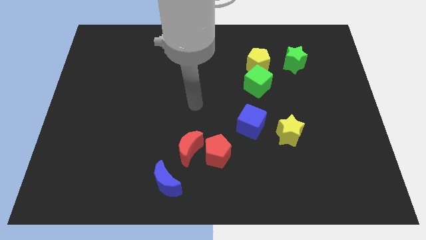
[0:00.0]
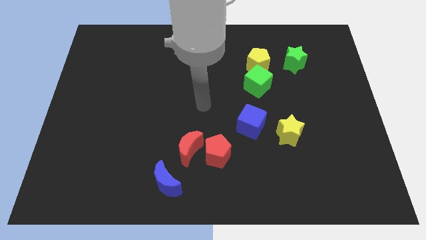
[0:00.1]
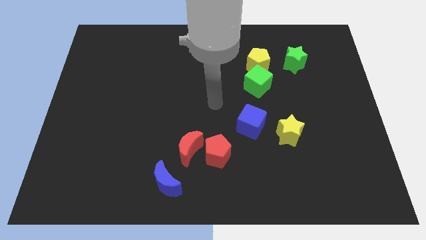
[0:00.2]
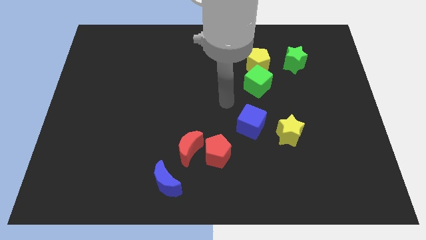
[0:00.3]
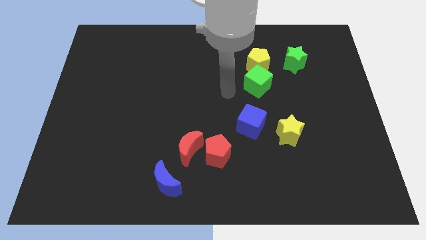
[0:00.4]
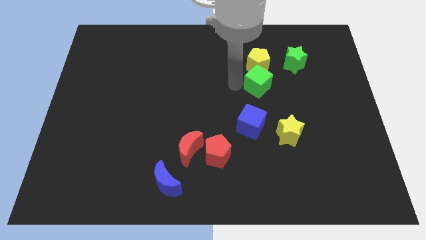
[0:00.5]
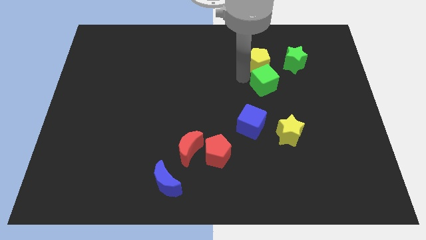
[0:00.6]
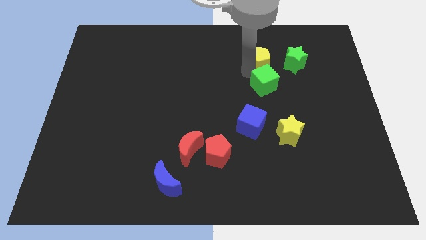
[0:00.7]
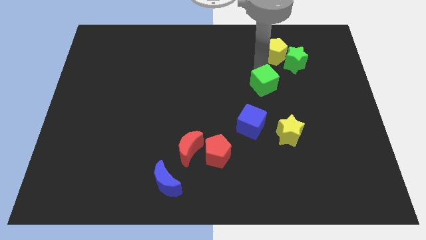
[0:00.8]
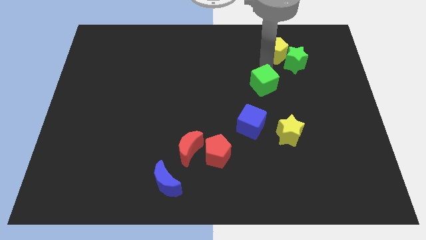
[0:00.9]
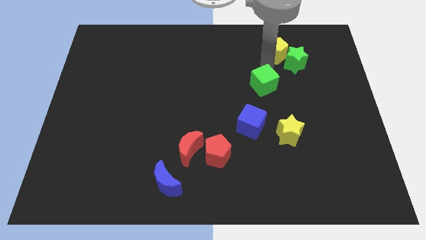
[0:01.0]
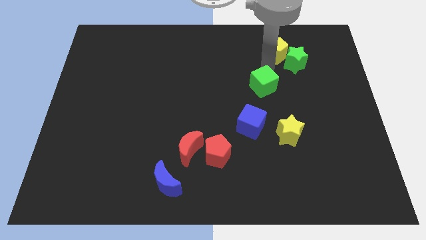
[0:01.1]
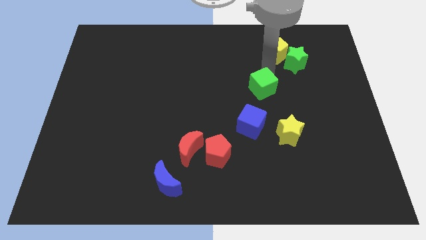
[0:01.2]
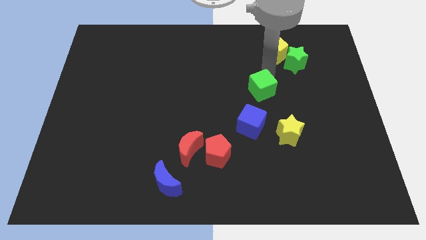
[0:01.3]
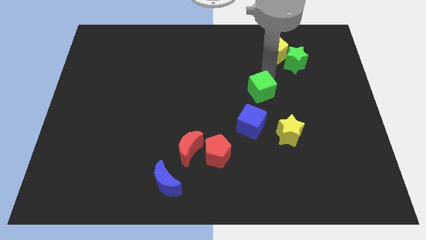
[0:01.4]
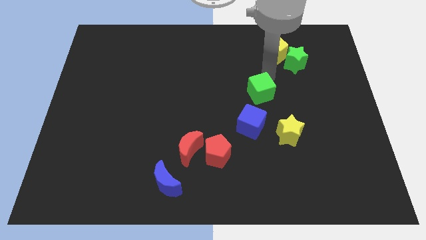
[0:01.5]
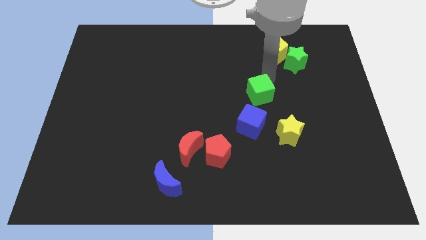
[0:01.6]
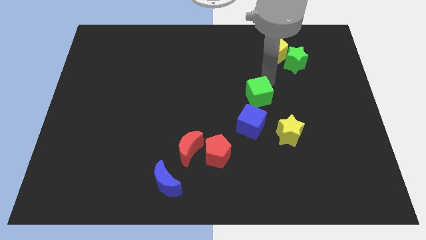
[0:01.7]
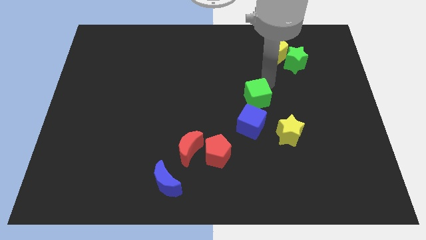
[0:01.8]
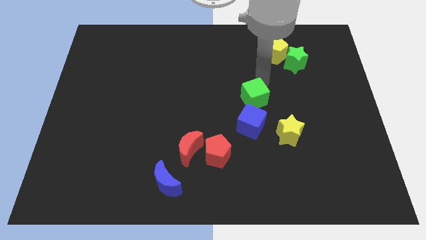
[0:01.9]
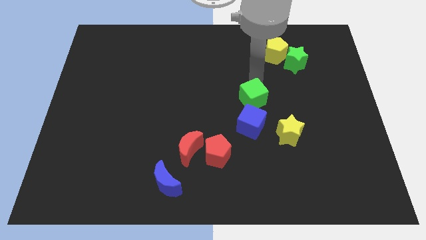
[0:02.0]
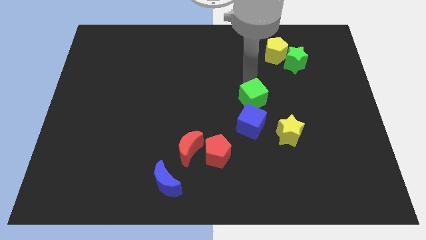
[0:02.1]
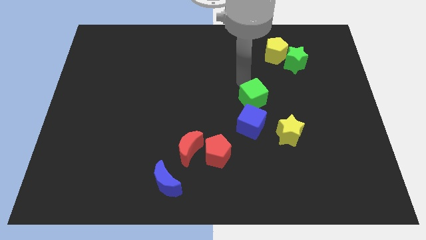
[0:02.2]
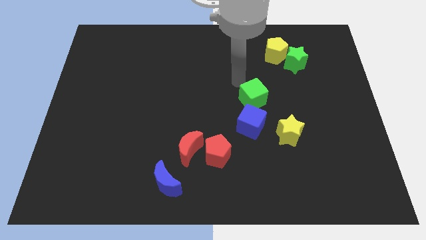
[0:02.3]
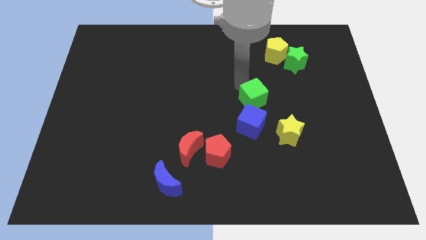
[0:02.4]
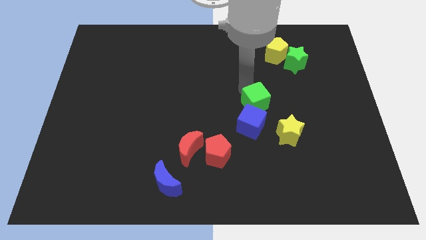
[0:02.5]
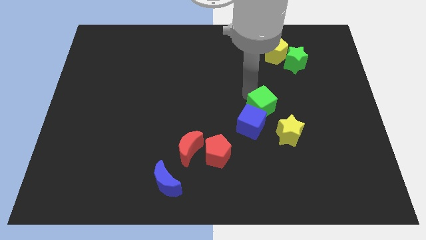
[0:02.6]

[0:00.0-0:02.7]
move the green cube downwards a little bit

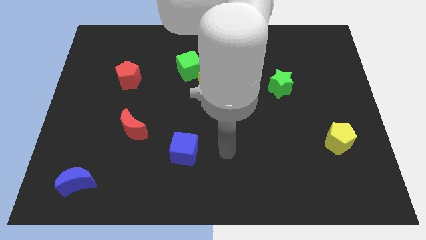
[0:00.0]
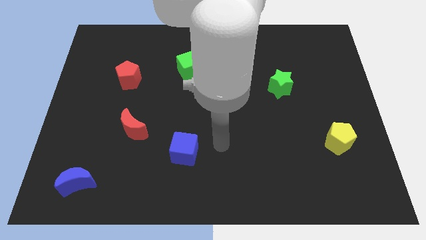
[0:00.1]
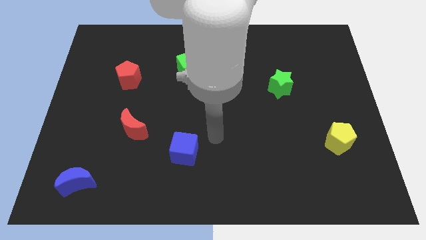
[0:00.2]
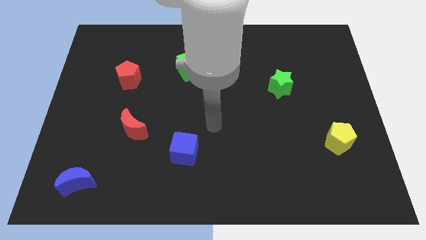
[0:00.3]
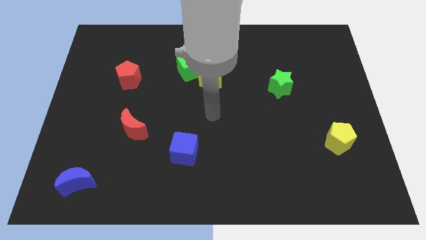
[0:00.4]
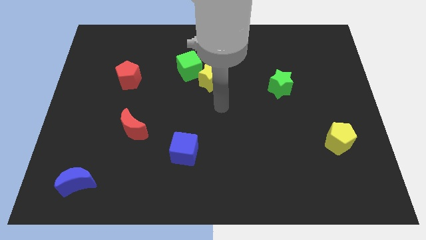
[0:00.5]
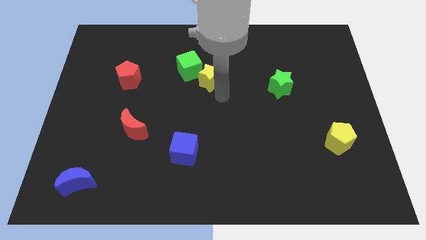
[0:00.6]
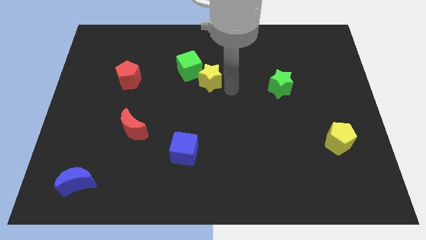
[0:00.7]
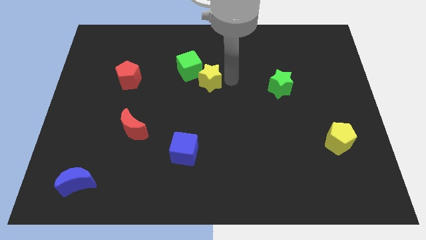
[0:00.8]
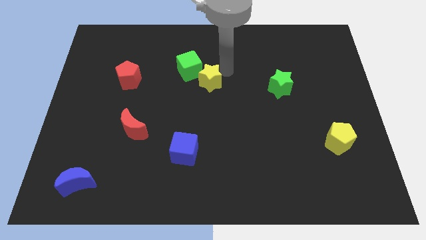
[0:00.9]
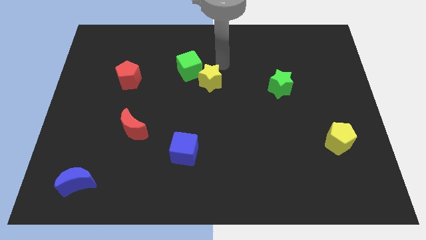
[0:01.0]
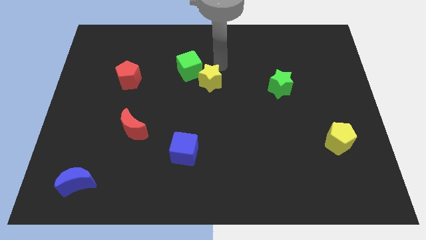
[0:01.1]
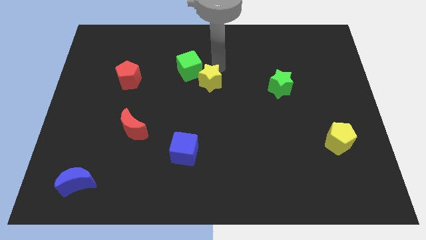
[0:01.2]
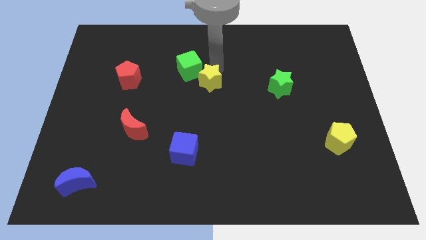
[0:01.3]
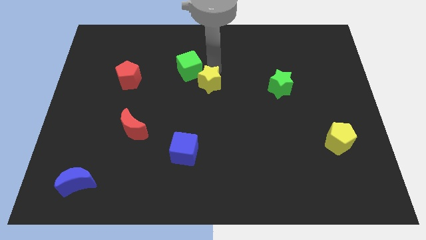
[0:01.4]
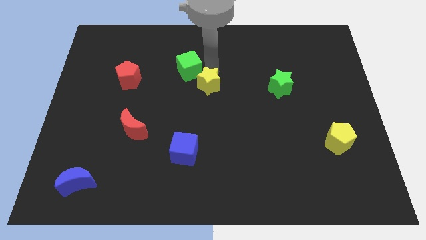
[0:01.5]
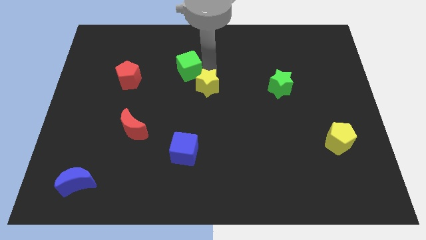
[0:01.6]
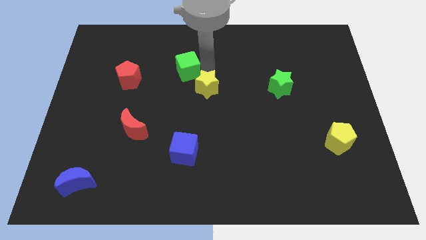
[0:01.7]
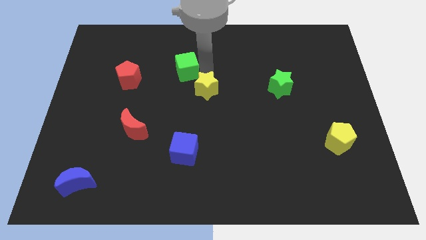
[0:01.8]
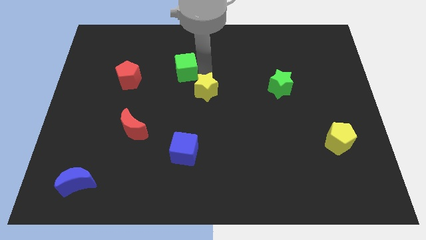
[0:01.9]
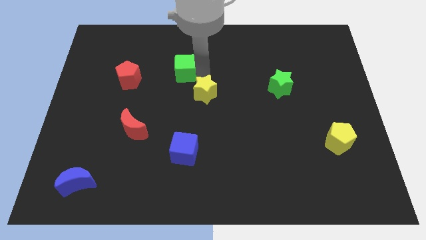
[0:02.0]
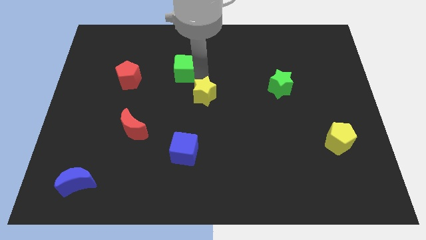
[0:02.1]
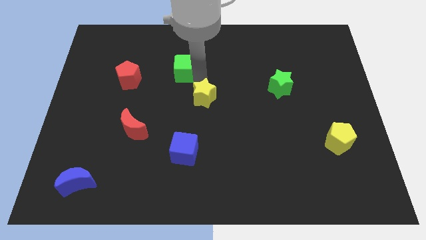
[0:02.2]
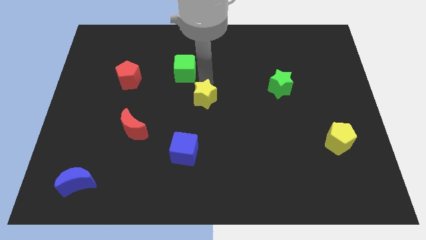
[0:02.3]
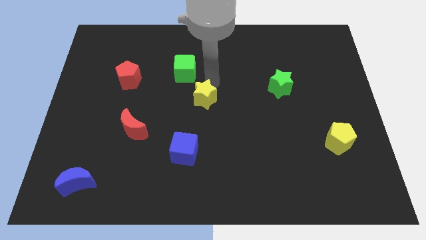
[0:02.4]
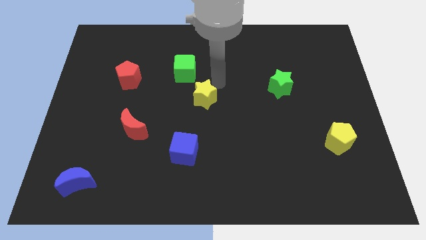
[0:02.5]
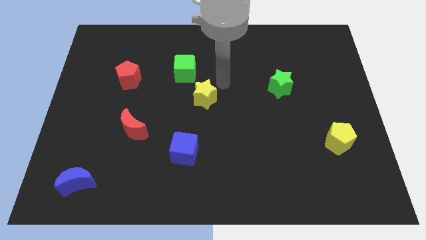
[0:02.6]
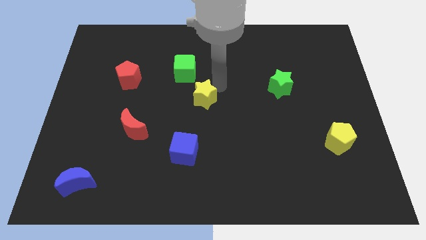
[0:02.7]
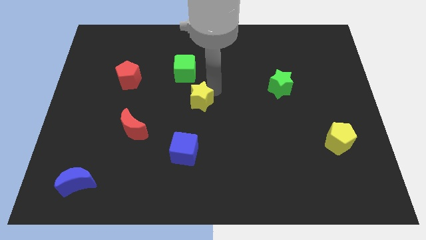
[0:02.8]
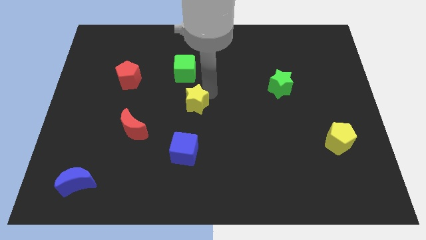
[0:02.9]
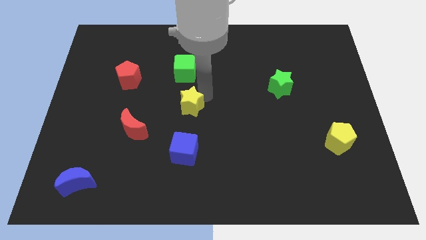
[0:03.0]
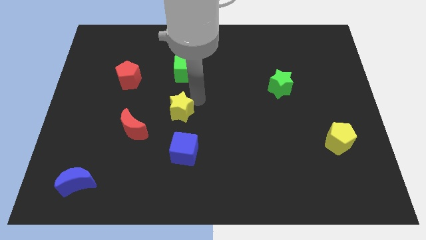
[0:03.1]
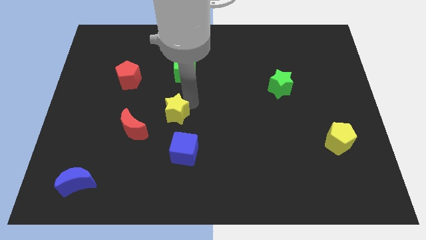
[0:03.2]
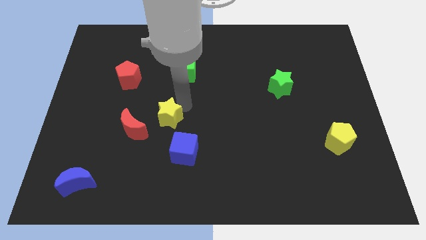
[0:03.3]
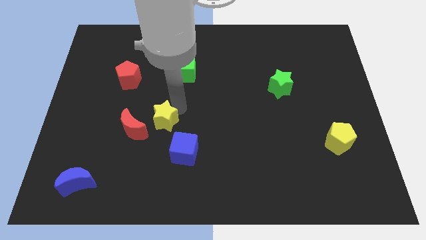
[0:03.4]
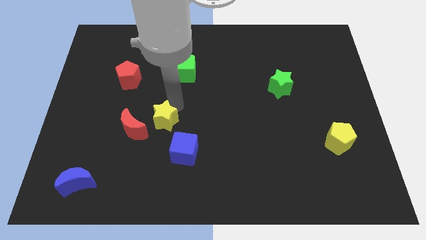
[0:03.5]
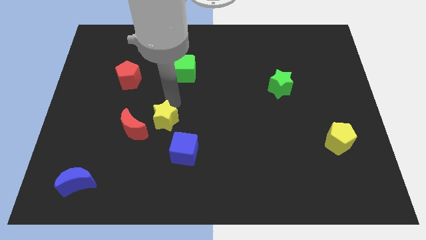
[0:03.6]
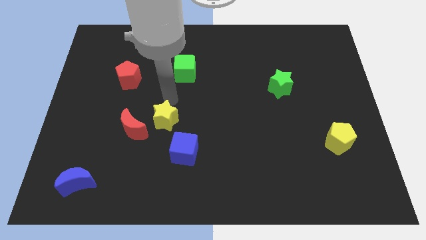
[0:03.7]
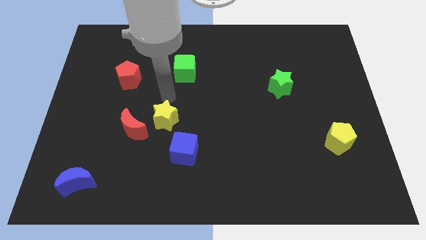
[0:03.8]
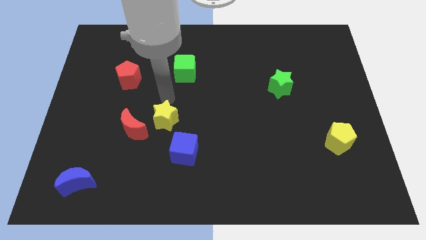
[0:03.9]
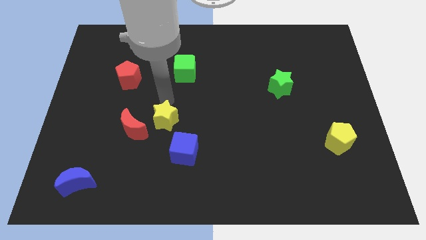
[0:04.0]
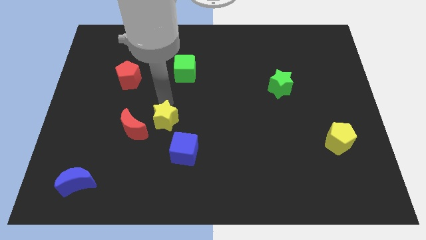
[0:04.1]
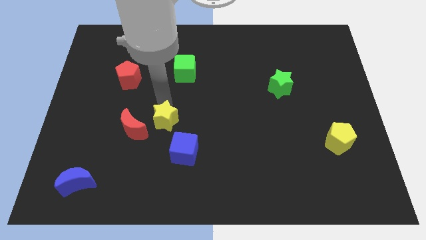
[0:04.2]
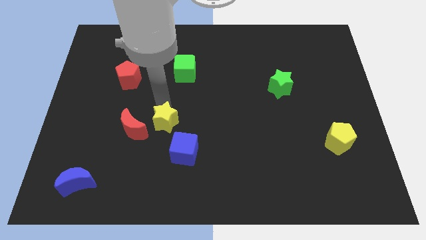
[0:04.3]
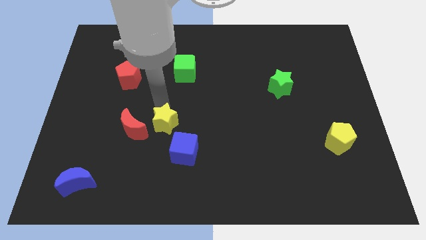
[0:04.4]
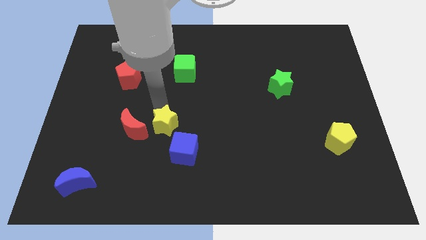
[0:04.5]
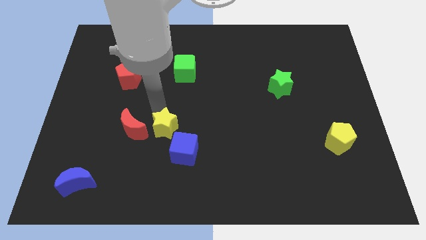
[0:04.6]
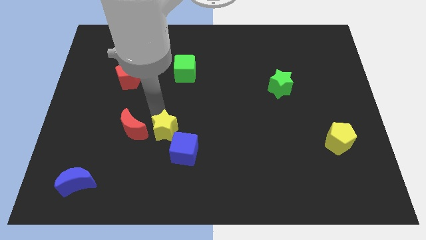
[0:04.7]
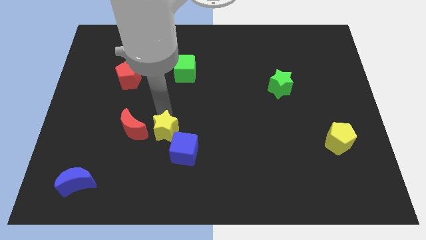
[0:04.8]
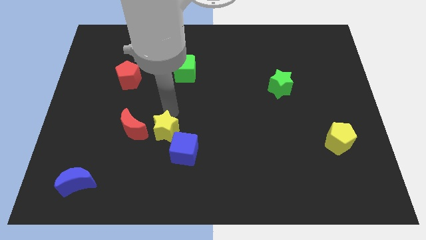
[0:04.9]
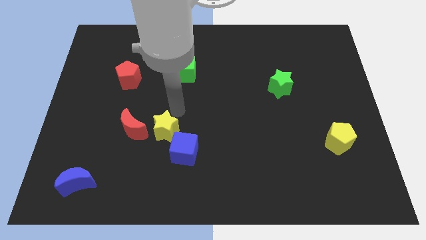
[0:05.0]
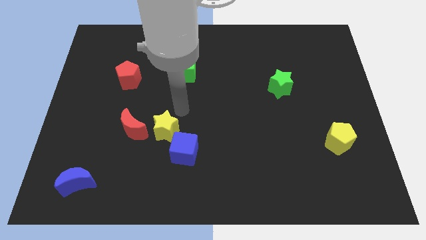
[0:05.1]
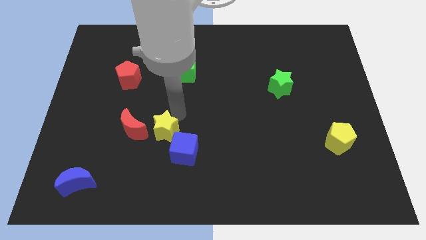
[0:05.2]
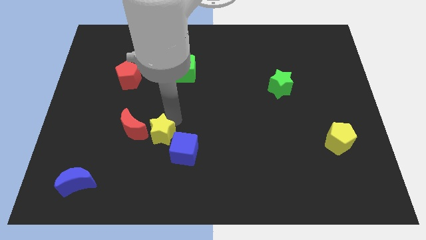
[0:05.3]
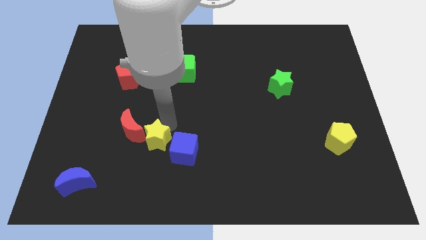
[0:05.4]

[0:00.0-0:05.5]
push the yellow star down and then left
